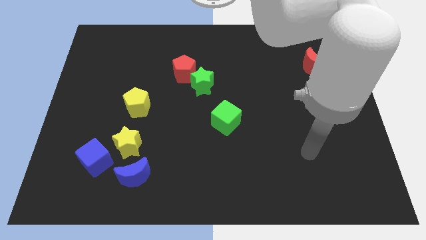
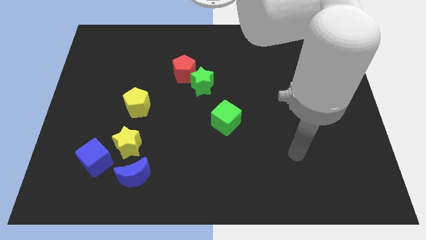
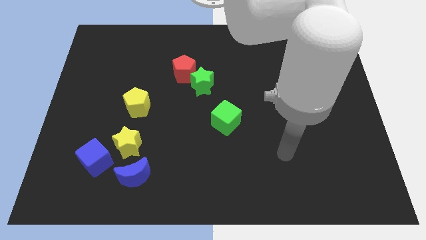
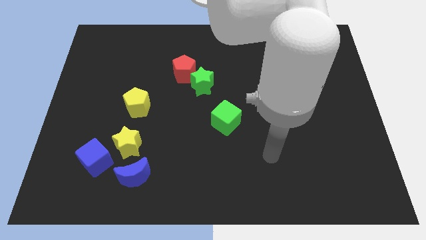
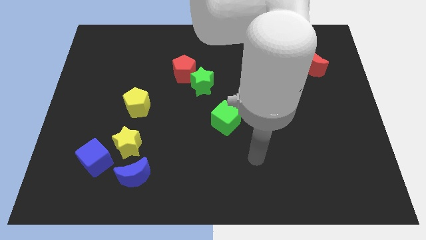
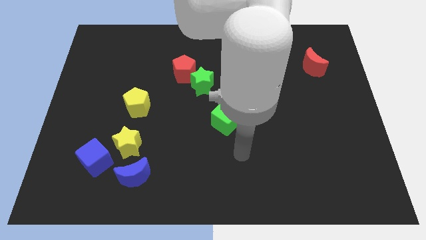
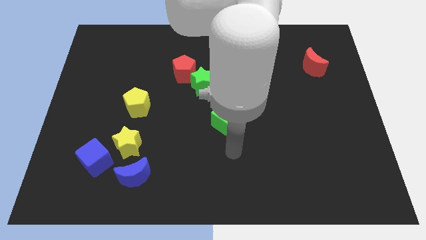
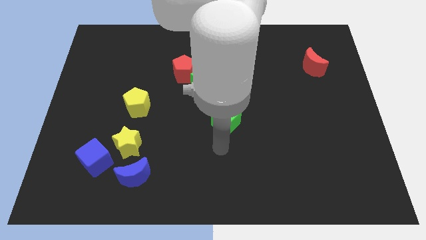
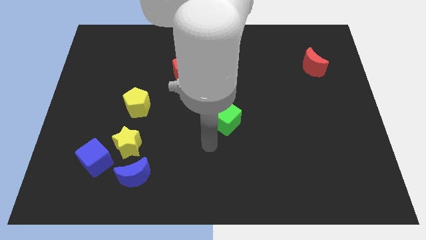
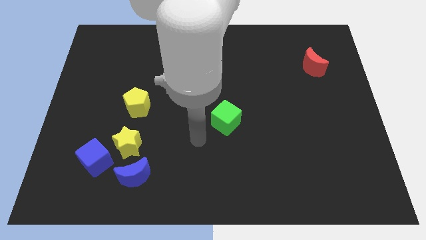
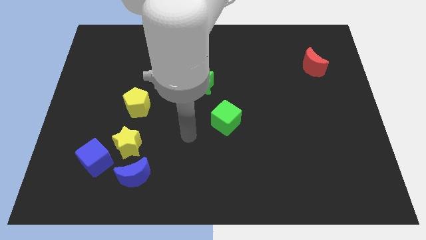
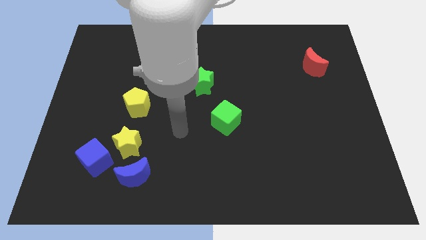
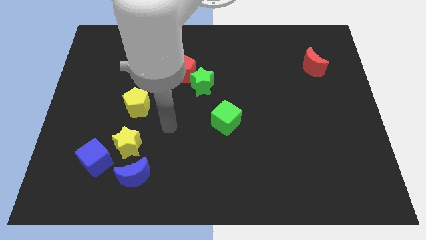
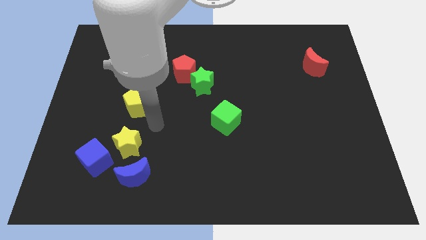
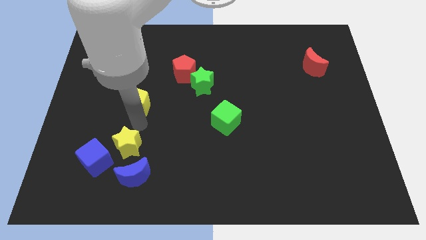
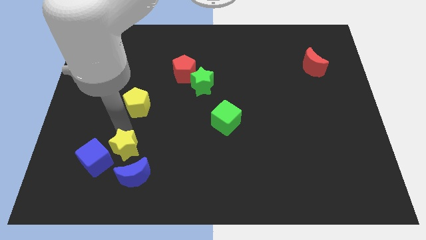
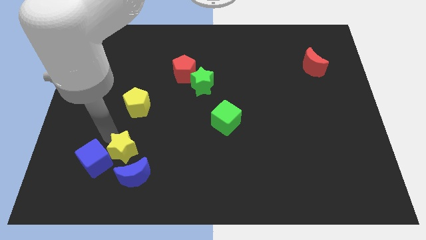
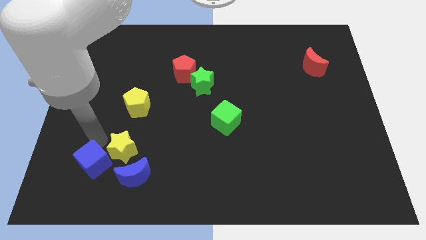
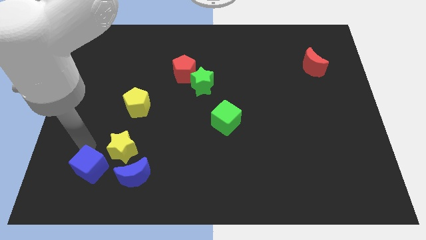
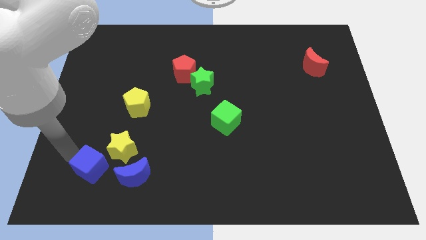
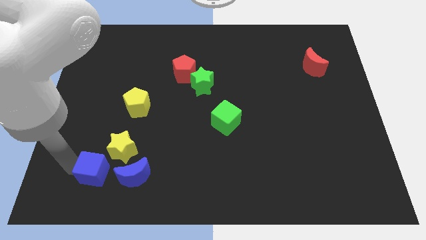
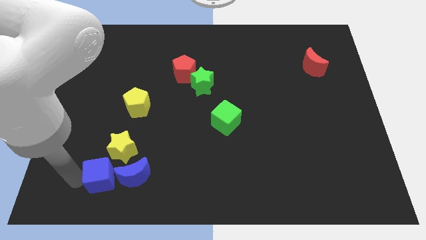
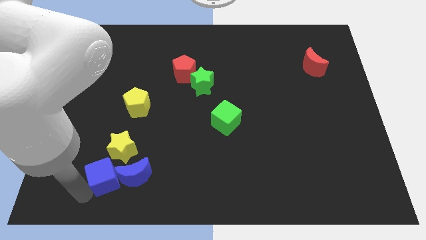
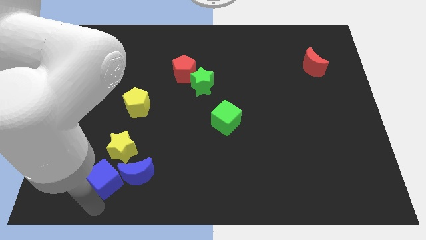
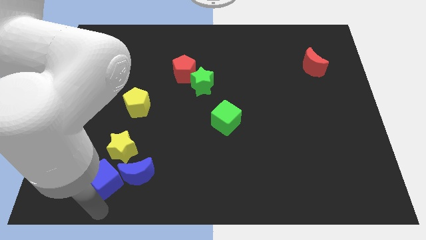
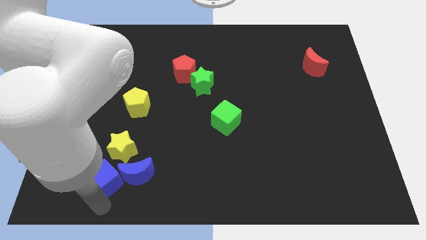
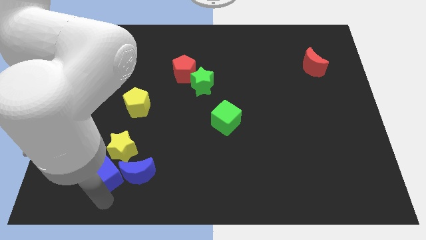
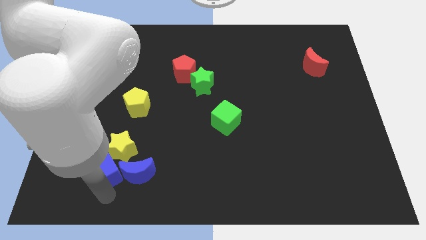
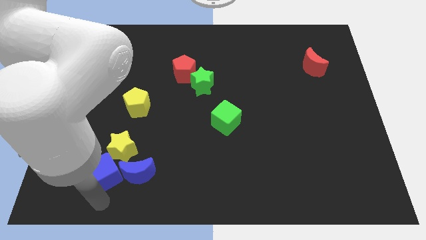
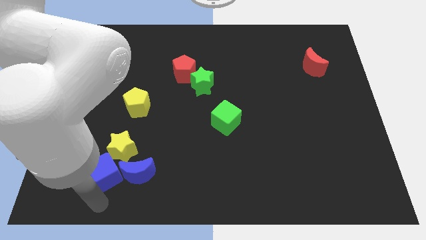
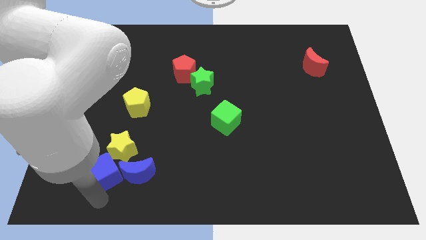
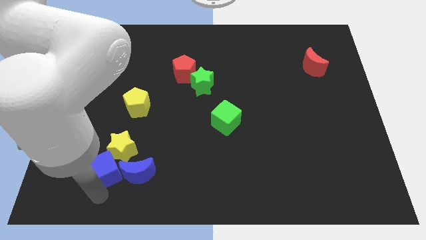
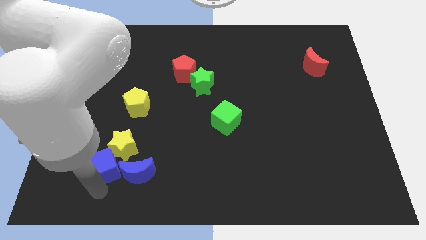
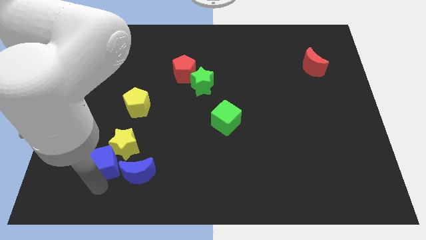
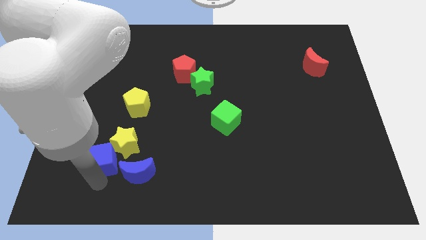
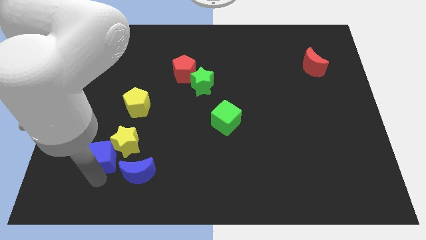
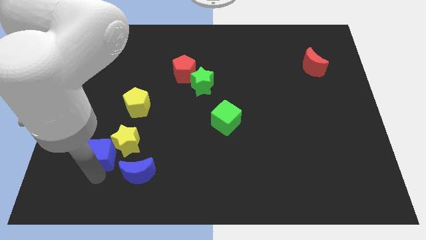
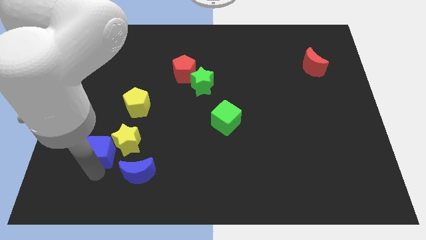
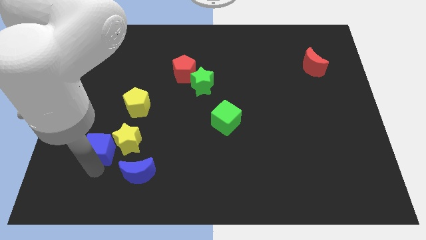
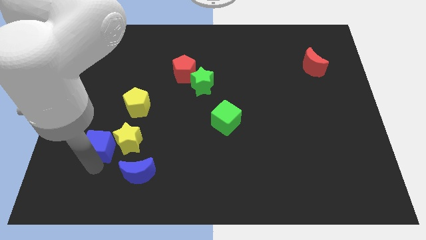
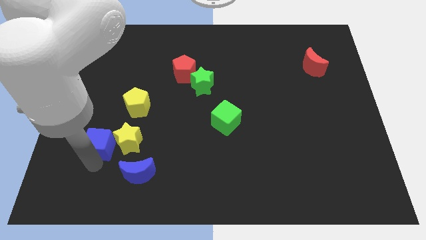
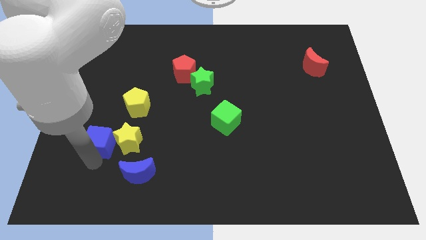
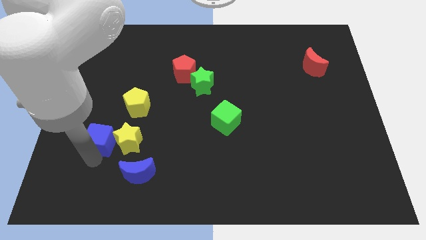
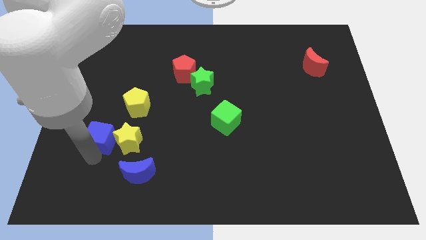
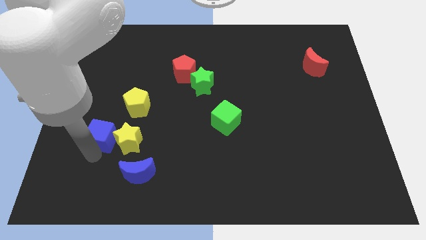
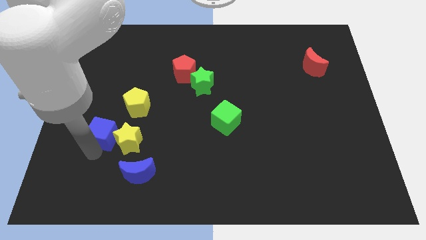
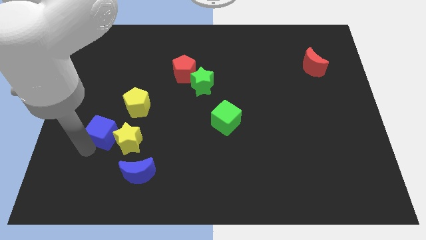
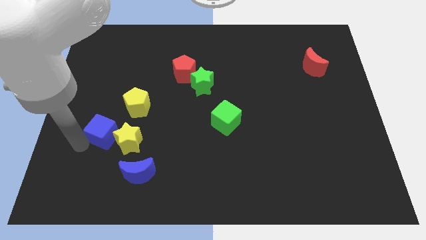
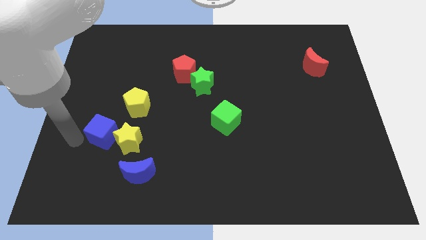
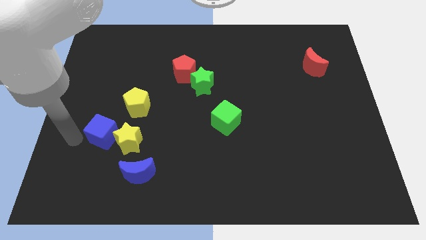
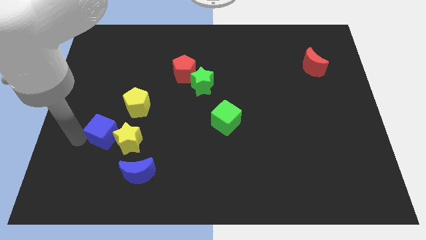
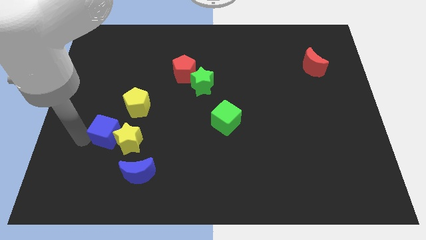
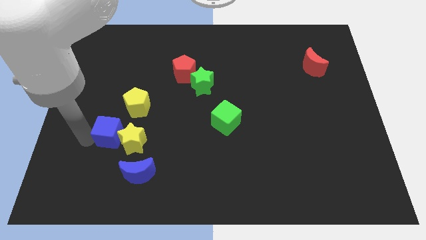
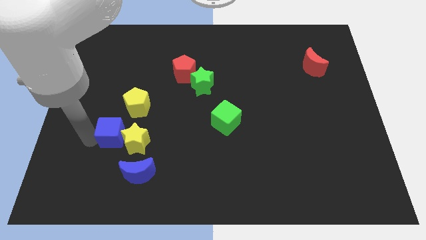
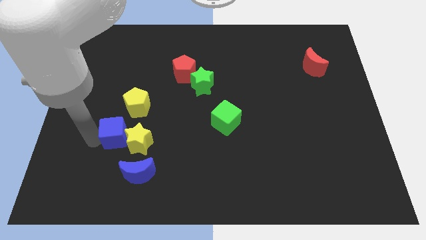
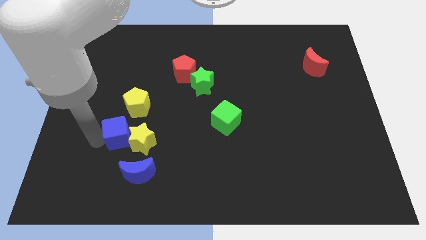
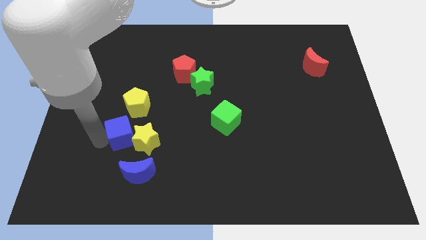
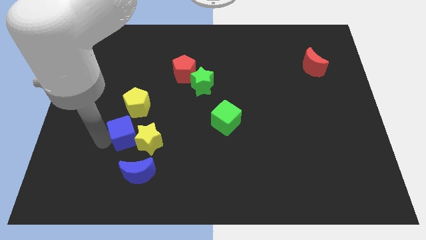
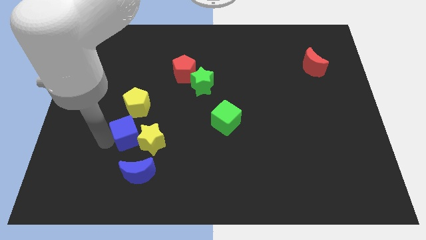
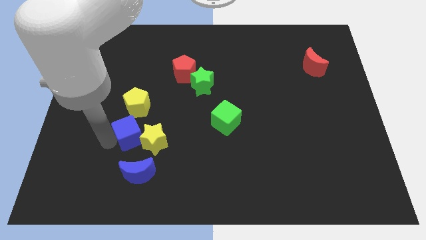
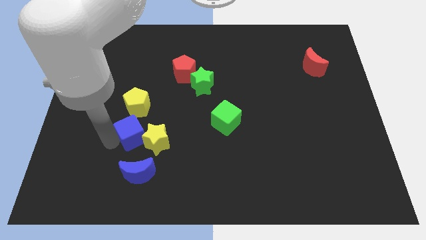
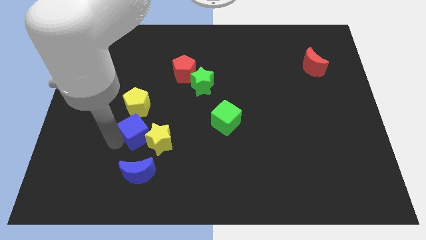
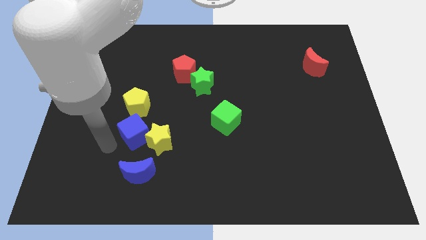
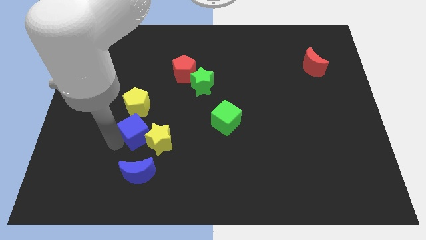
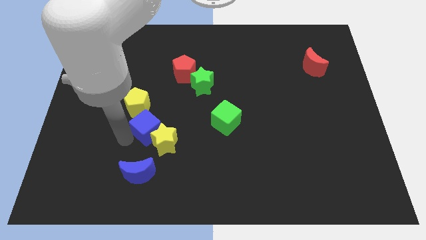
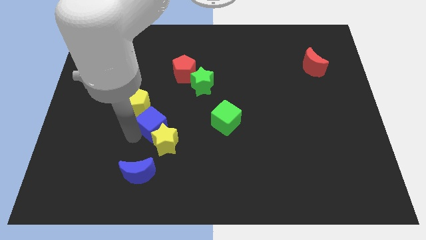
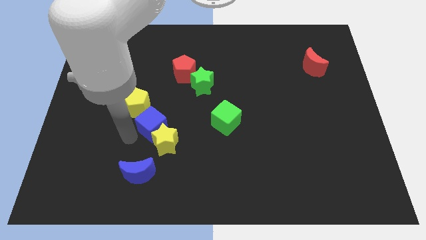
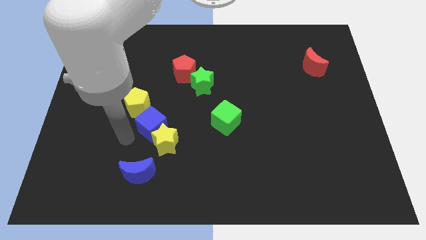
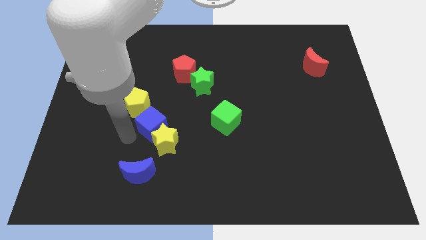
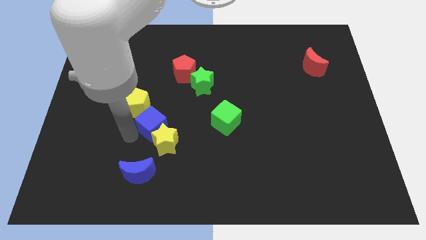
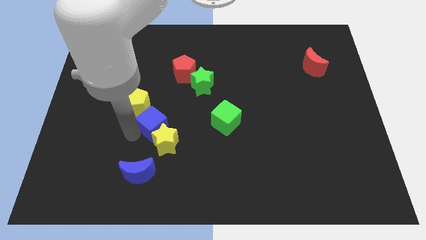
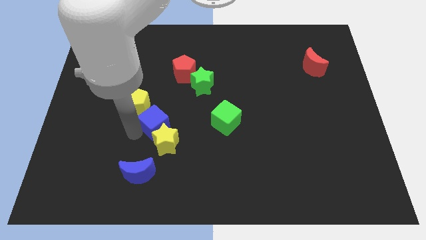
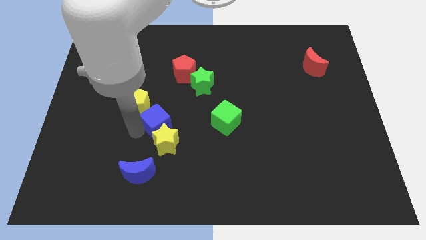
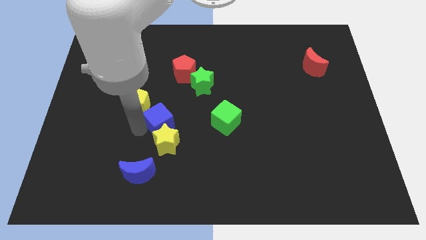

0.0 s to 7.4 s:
move the blue cube to the right side of the yellow pentagon
